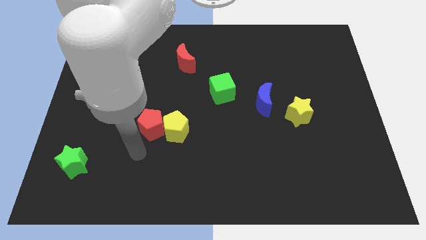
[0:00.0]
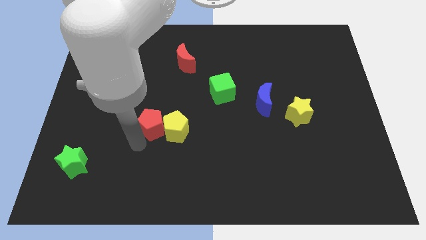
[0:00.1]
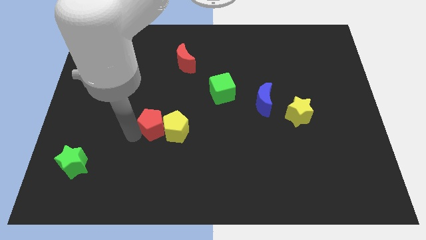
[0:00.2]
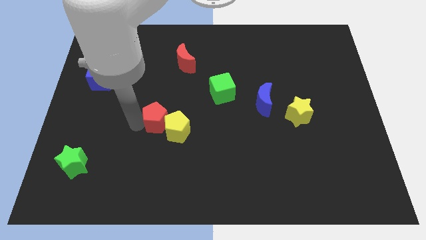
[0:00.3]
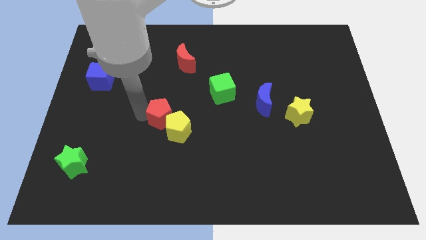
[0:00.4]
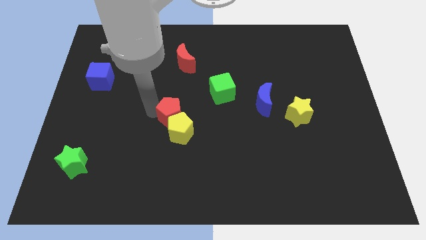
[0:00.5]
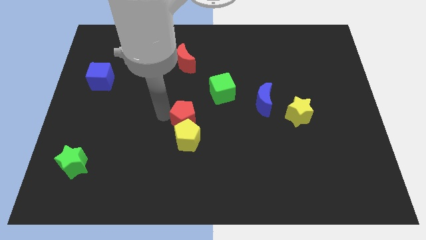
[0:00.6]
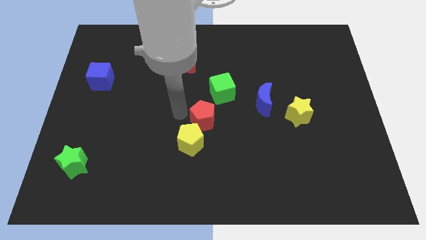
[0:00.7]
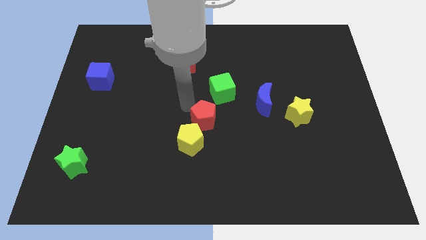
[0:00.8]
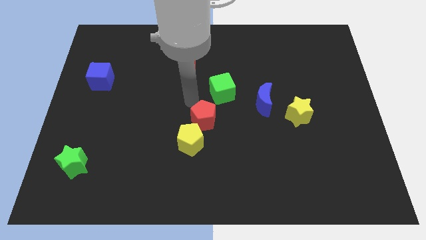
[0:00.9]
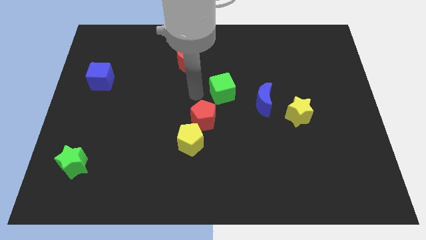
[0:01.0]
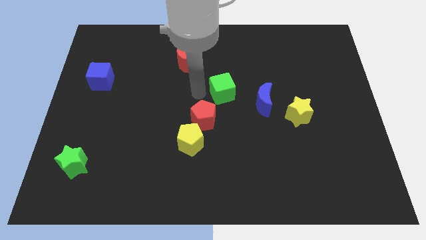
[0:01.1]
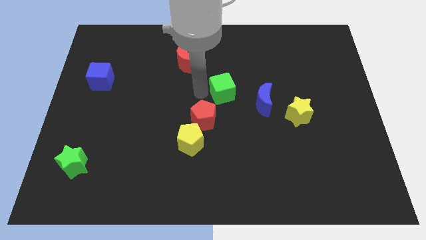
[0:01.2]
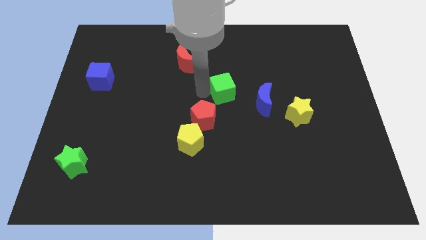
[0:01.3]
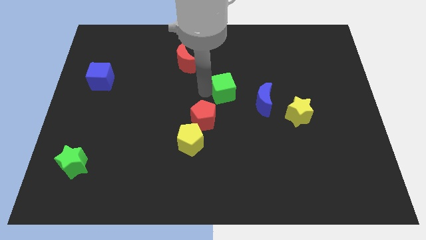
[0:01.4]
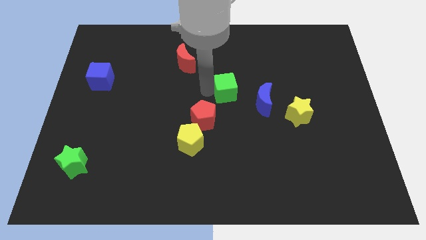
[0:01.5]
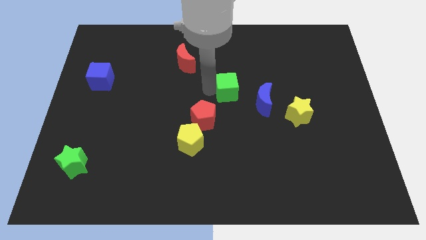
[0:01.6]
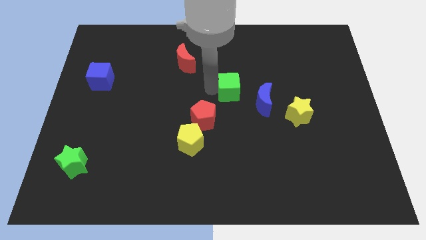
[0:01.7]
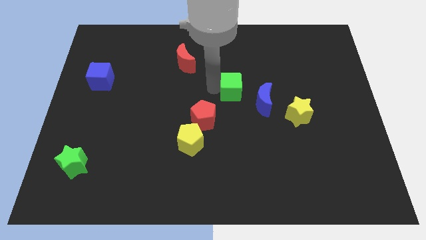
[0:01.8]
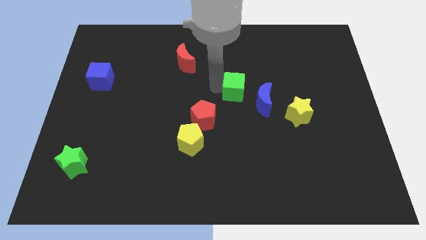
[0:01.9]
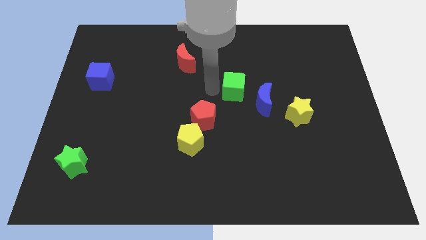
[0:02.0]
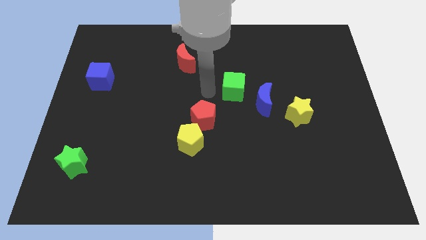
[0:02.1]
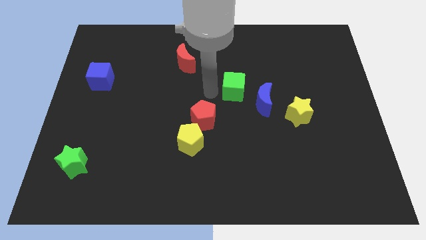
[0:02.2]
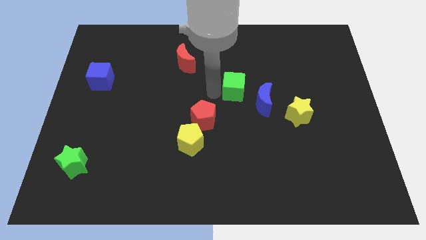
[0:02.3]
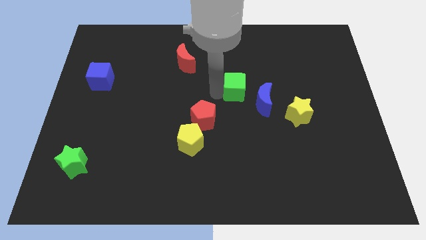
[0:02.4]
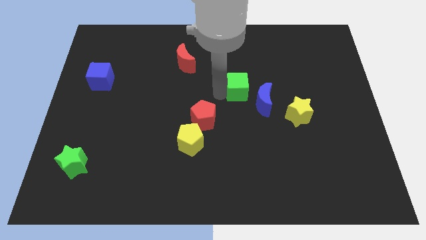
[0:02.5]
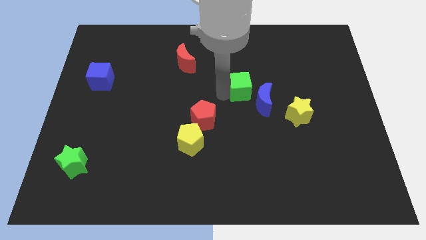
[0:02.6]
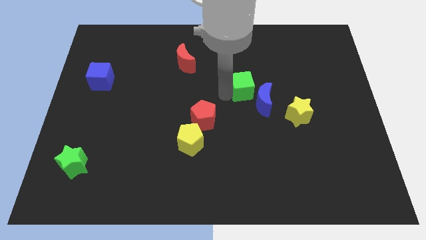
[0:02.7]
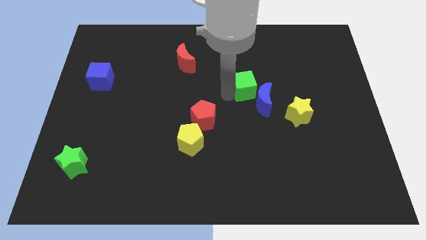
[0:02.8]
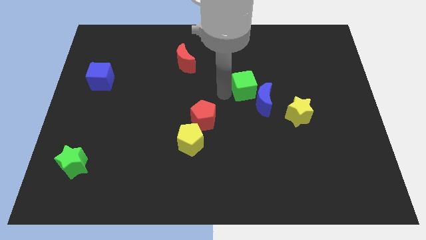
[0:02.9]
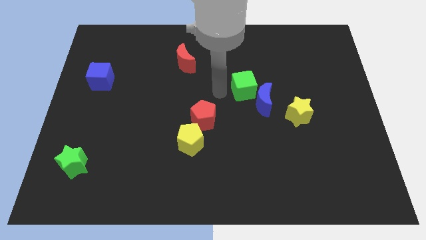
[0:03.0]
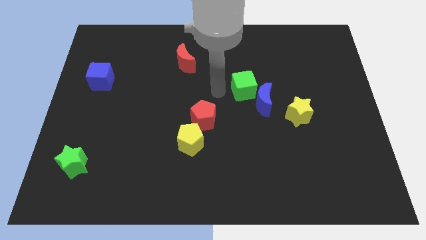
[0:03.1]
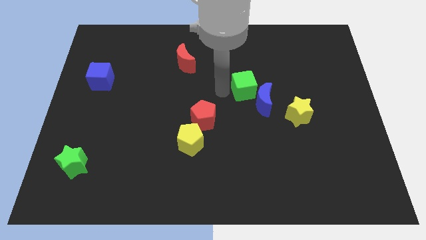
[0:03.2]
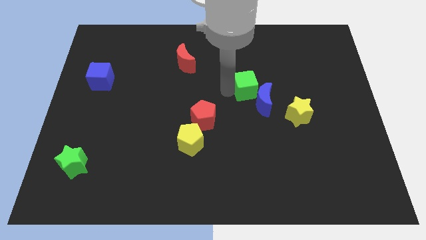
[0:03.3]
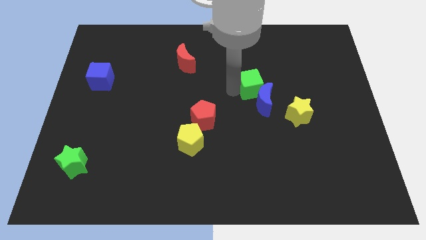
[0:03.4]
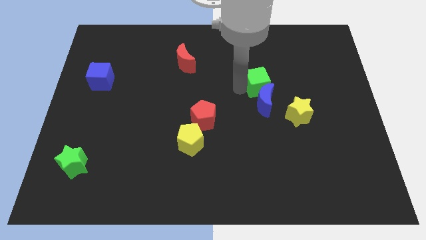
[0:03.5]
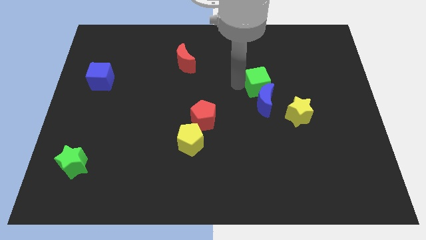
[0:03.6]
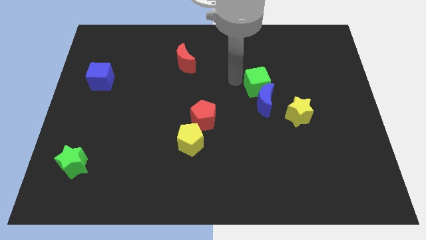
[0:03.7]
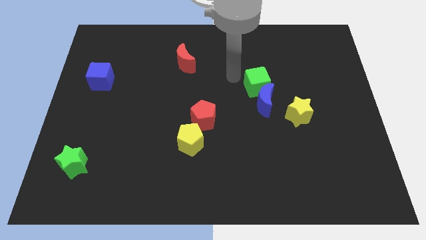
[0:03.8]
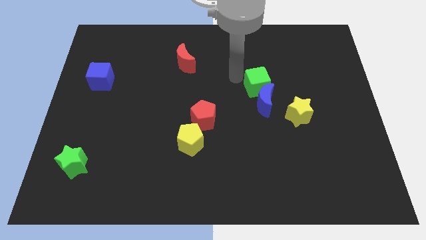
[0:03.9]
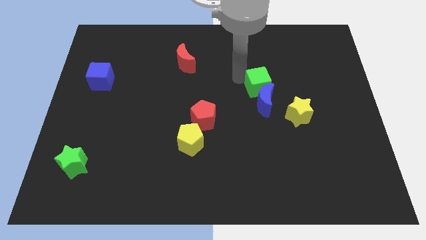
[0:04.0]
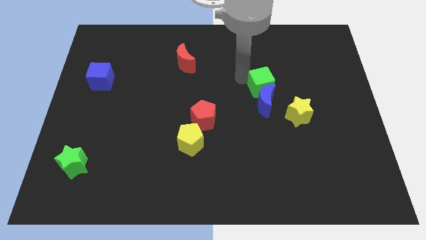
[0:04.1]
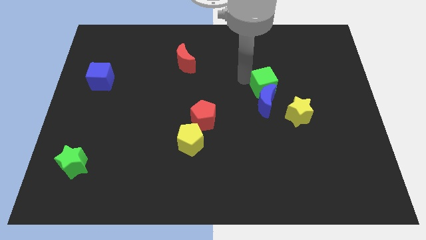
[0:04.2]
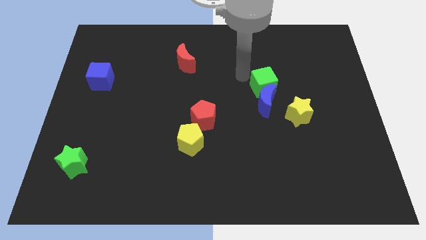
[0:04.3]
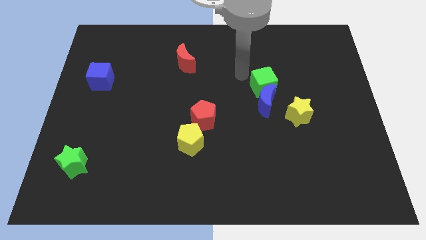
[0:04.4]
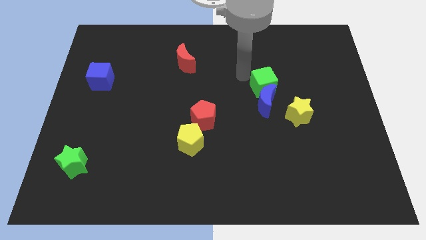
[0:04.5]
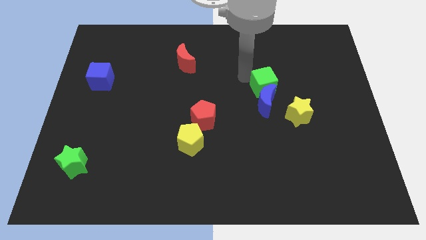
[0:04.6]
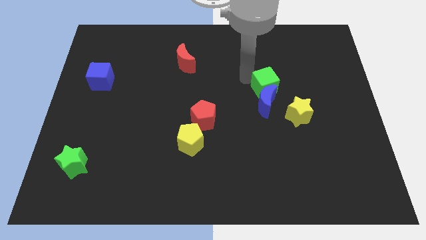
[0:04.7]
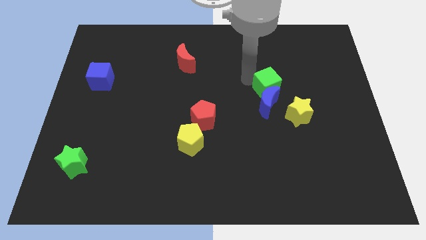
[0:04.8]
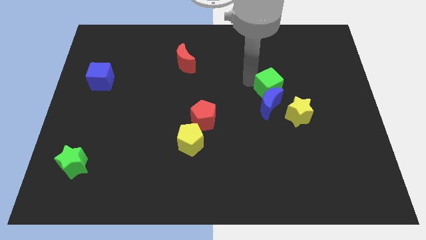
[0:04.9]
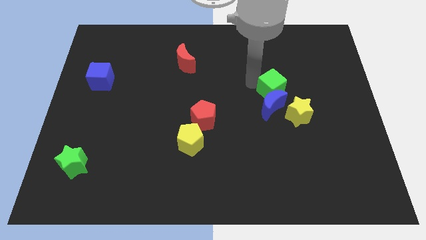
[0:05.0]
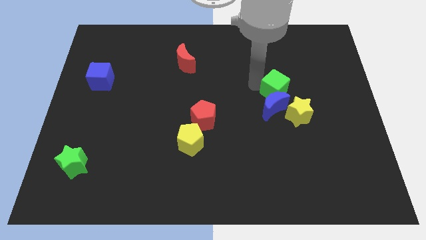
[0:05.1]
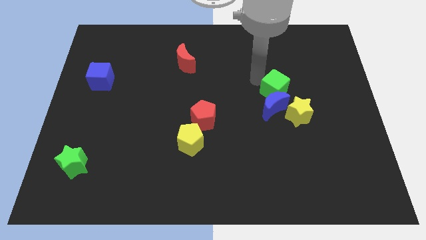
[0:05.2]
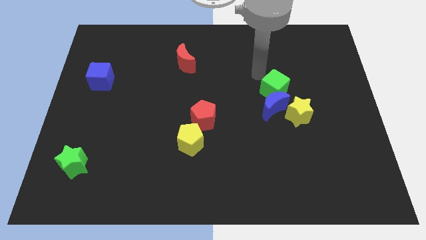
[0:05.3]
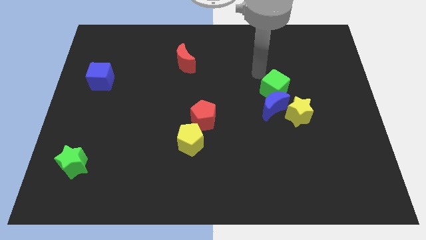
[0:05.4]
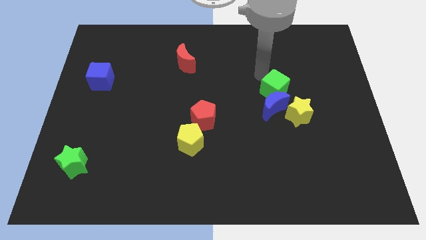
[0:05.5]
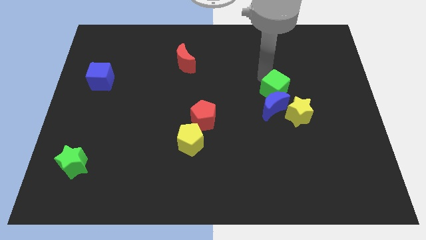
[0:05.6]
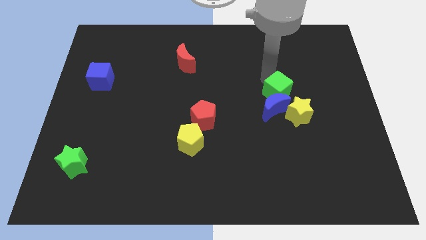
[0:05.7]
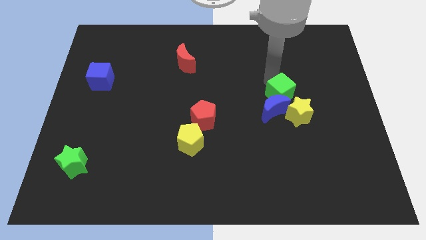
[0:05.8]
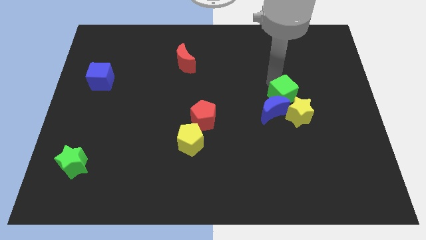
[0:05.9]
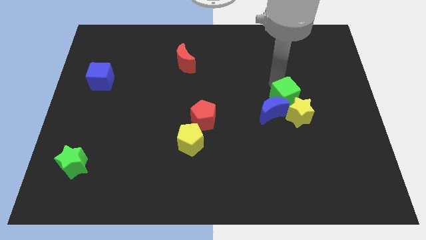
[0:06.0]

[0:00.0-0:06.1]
slide the green cube to the yellow star

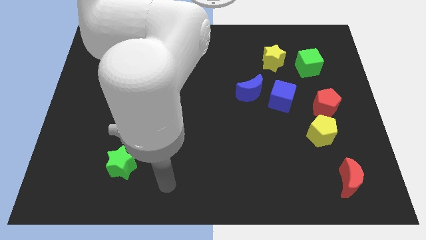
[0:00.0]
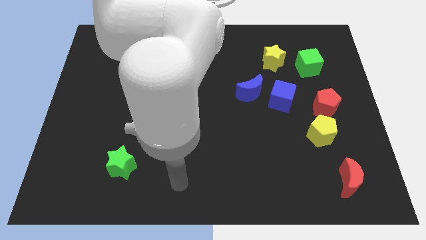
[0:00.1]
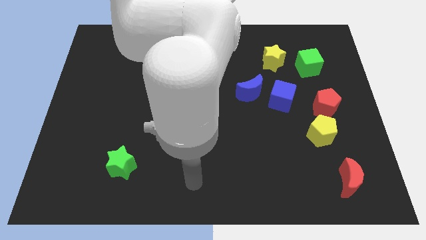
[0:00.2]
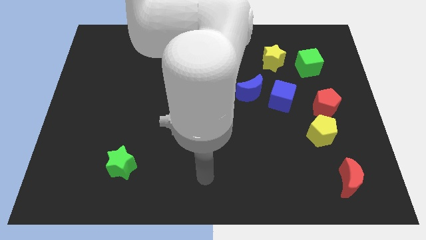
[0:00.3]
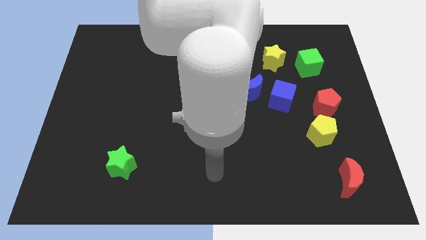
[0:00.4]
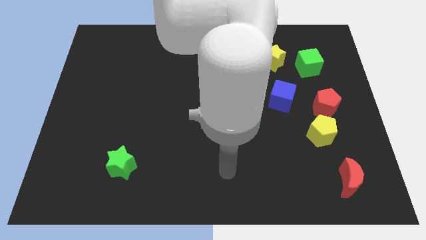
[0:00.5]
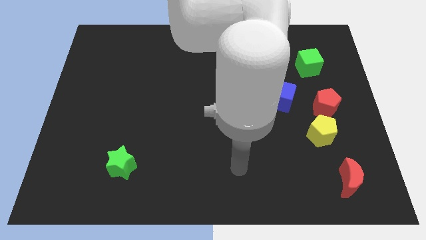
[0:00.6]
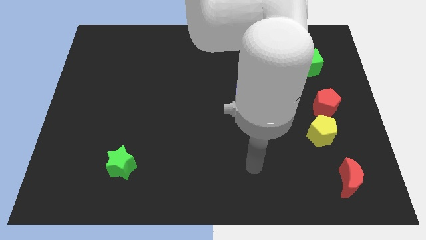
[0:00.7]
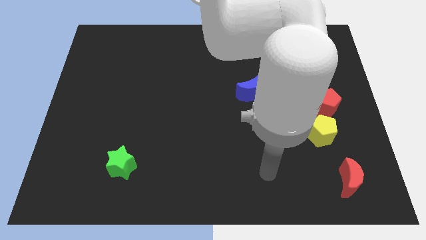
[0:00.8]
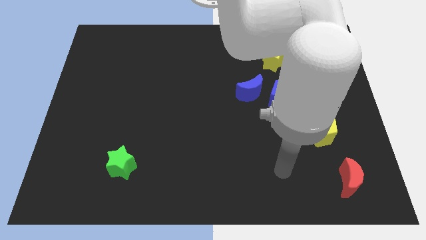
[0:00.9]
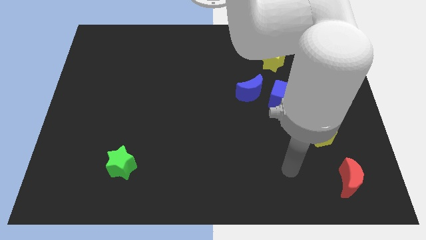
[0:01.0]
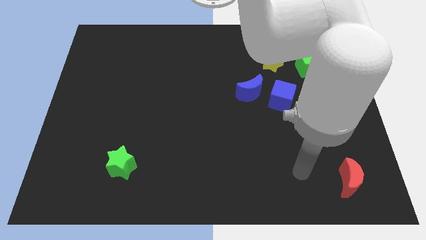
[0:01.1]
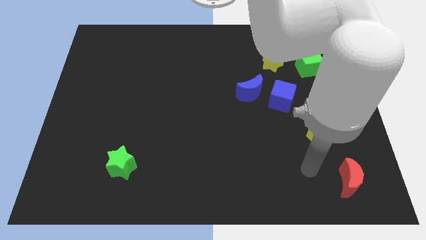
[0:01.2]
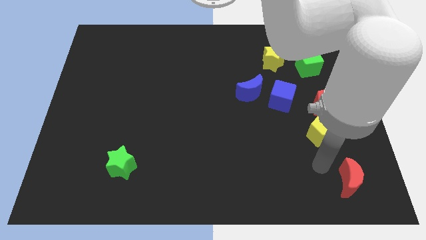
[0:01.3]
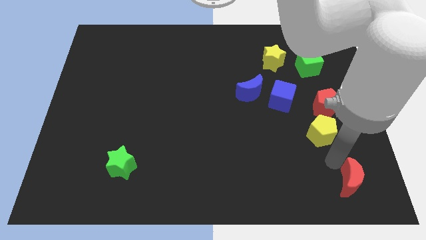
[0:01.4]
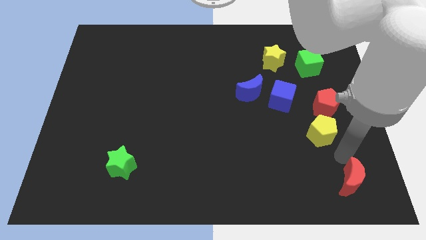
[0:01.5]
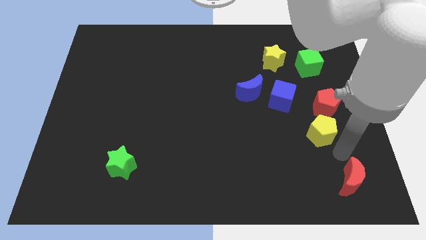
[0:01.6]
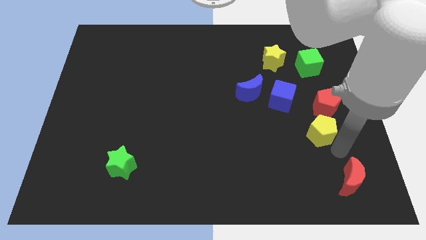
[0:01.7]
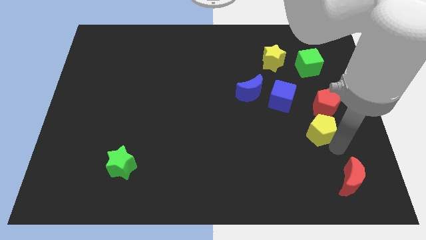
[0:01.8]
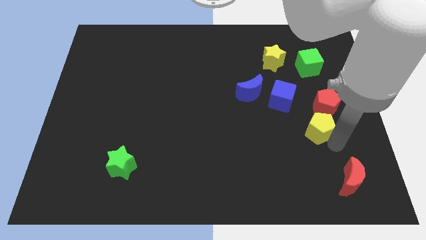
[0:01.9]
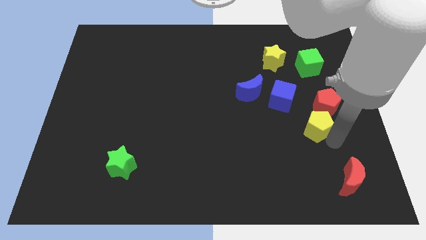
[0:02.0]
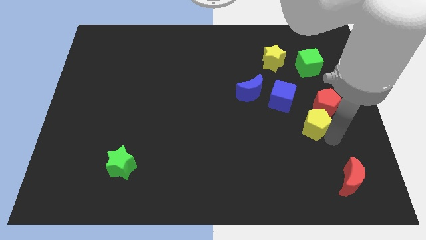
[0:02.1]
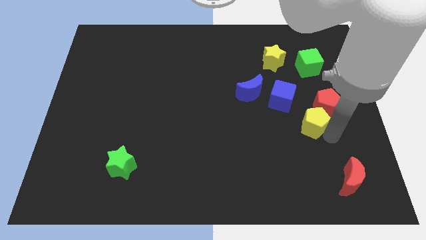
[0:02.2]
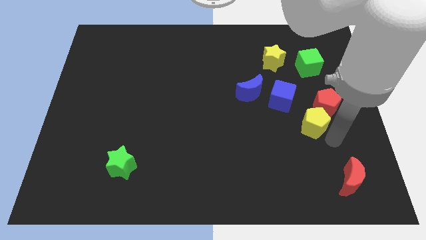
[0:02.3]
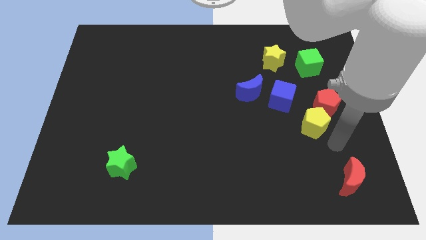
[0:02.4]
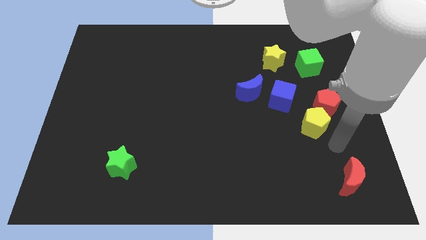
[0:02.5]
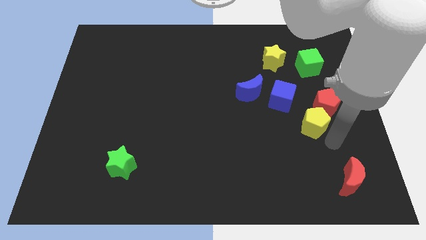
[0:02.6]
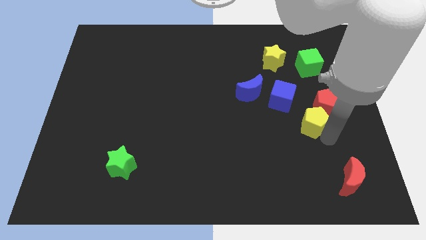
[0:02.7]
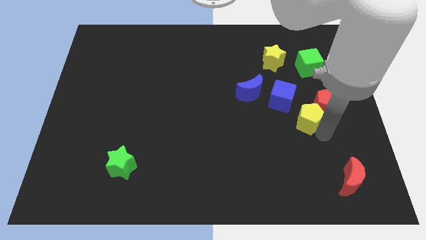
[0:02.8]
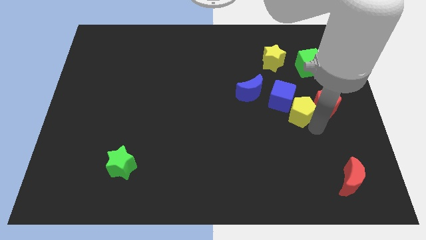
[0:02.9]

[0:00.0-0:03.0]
put the yellow pentagon next to the blue cube
